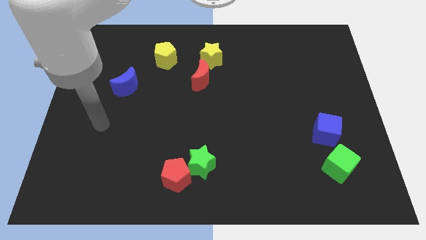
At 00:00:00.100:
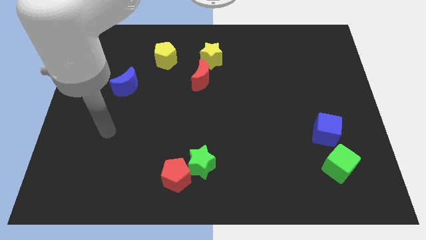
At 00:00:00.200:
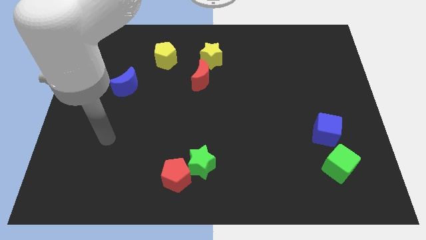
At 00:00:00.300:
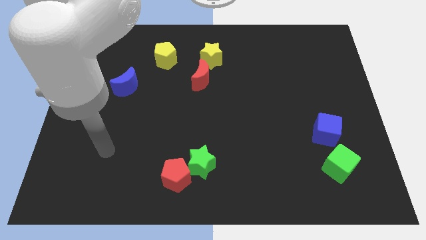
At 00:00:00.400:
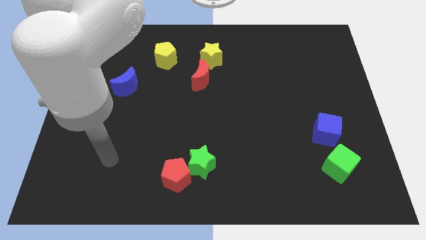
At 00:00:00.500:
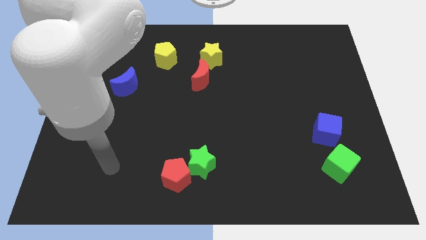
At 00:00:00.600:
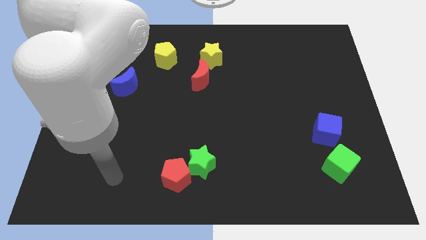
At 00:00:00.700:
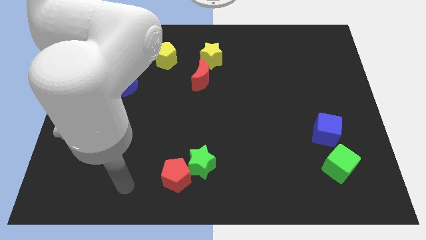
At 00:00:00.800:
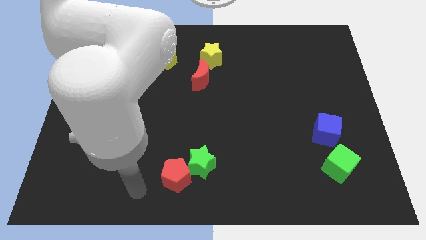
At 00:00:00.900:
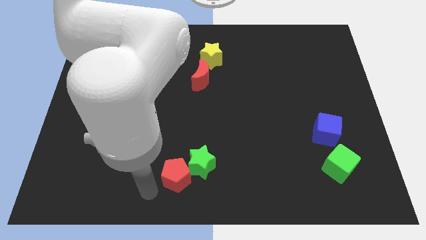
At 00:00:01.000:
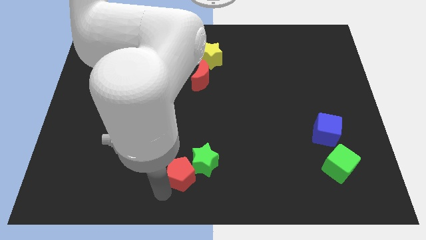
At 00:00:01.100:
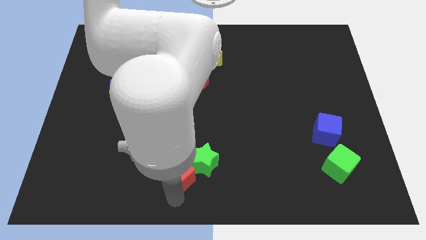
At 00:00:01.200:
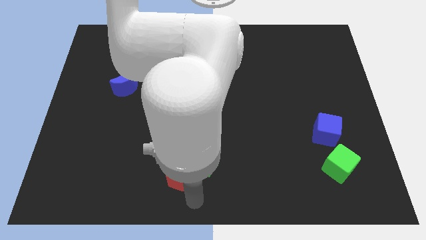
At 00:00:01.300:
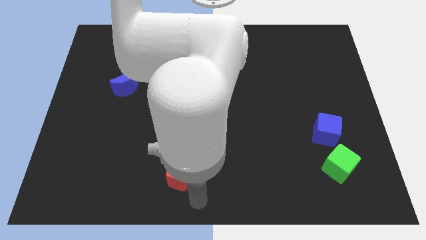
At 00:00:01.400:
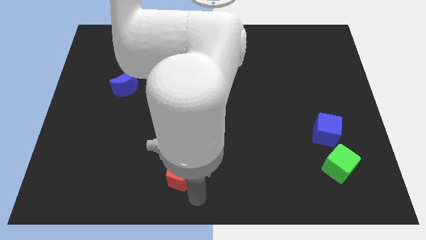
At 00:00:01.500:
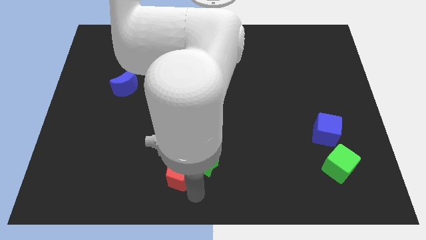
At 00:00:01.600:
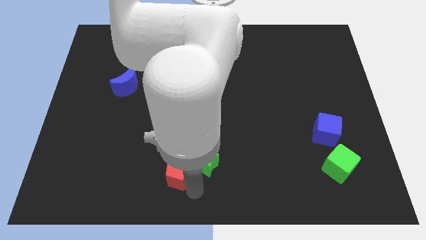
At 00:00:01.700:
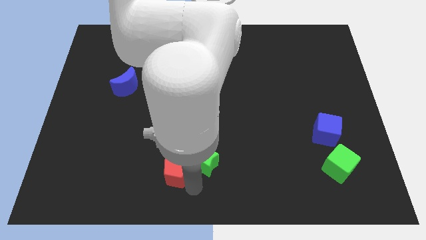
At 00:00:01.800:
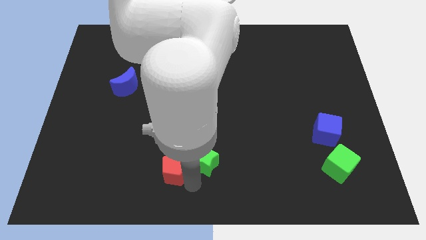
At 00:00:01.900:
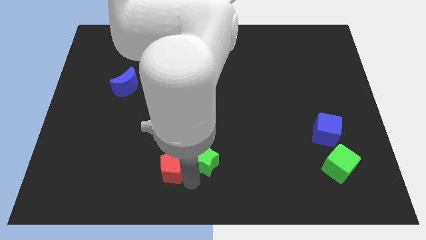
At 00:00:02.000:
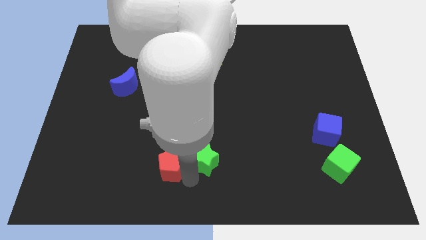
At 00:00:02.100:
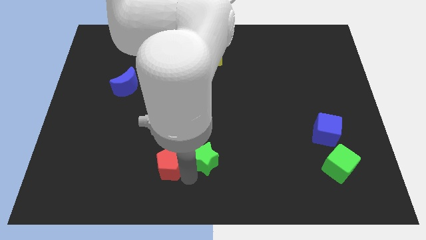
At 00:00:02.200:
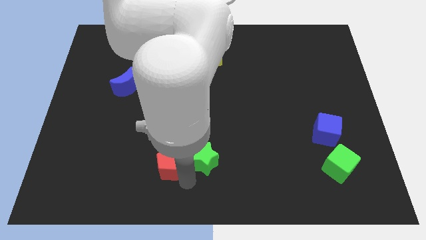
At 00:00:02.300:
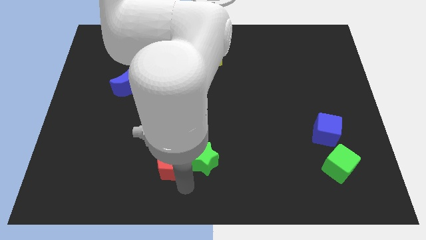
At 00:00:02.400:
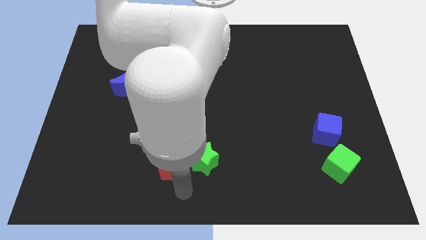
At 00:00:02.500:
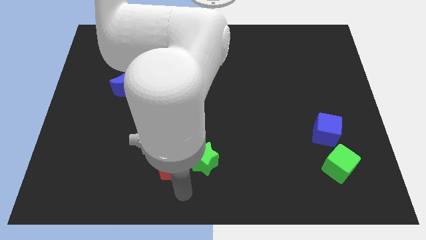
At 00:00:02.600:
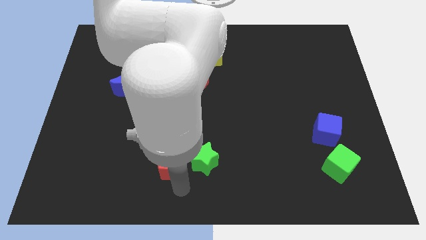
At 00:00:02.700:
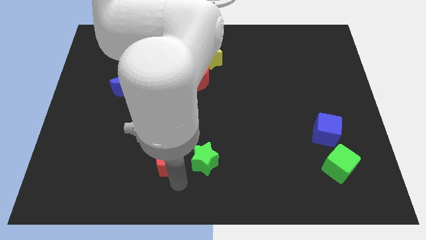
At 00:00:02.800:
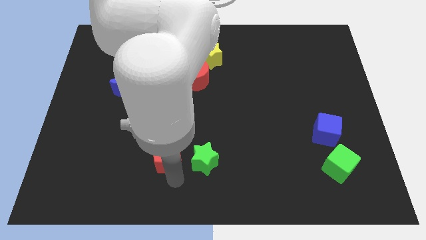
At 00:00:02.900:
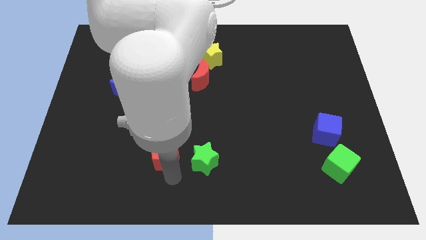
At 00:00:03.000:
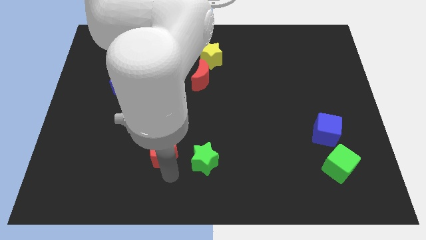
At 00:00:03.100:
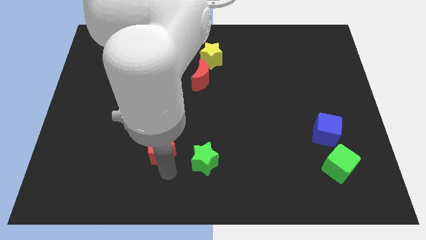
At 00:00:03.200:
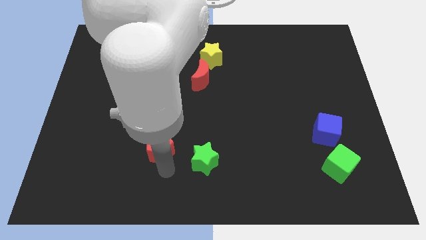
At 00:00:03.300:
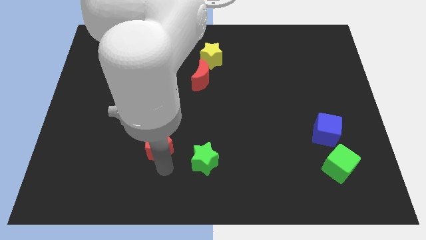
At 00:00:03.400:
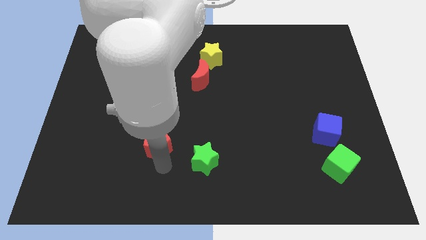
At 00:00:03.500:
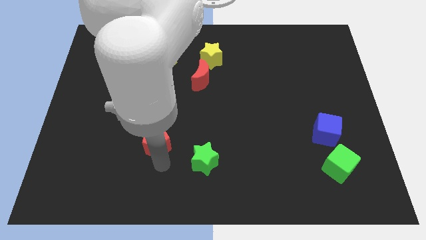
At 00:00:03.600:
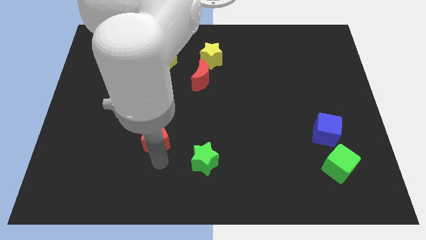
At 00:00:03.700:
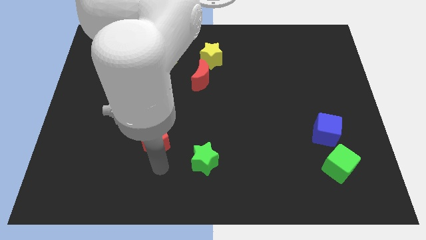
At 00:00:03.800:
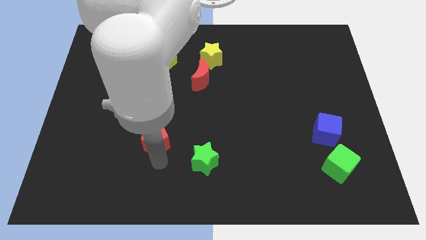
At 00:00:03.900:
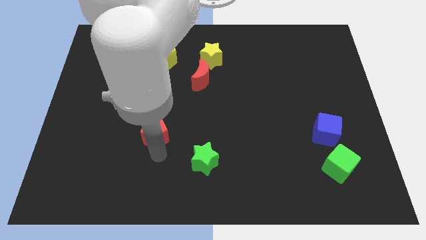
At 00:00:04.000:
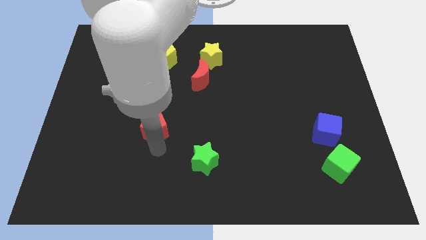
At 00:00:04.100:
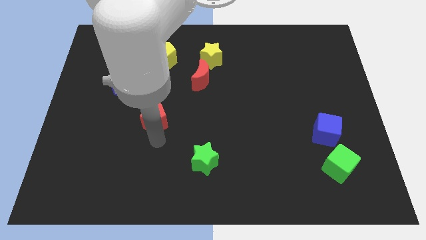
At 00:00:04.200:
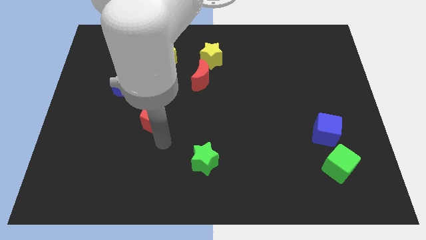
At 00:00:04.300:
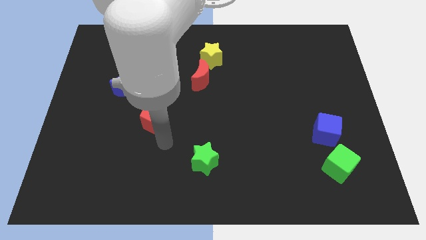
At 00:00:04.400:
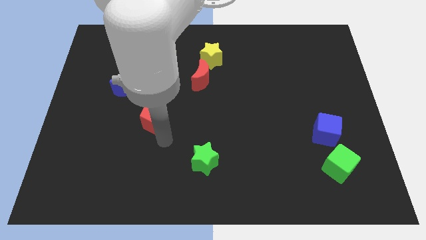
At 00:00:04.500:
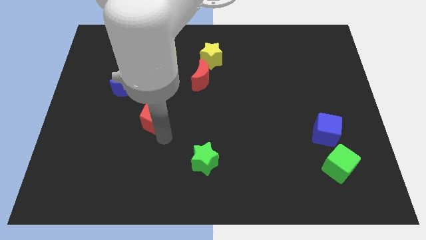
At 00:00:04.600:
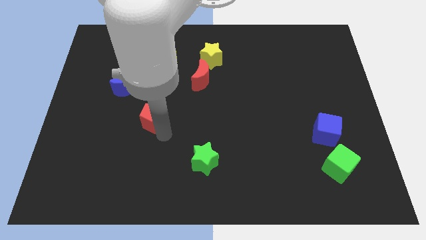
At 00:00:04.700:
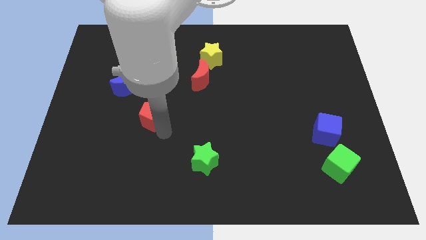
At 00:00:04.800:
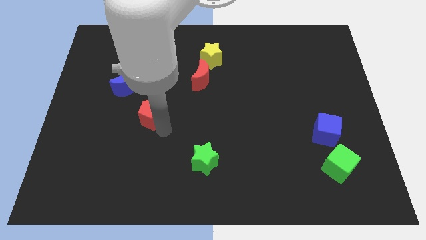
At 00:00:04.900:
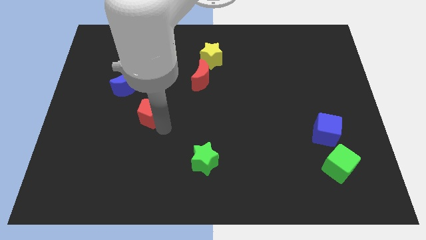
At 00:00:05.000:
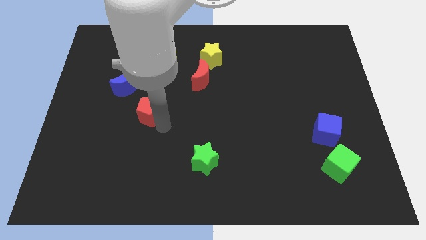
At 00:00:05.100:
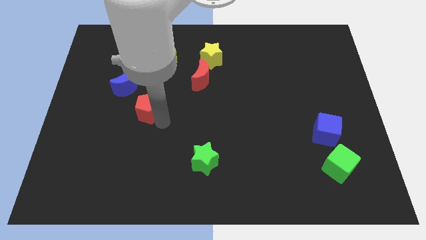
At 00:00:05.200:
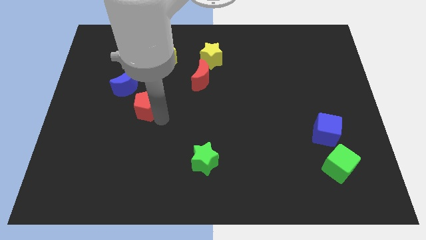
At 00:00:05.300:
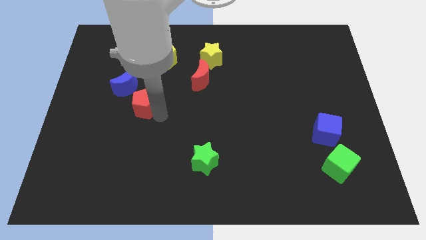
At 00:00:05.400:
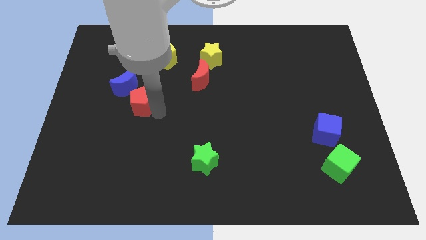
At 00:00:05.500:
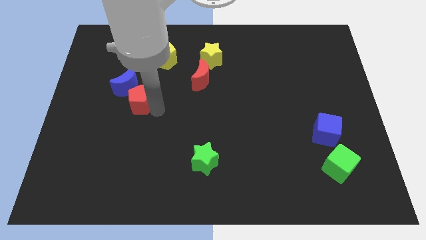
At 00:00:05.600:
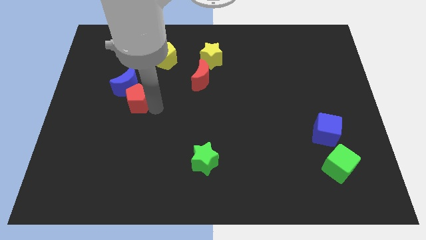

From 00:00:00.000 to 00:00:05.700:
push the red pentagon to the blue moon

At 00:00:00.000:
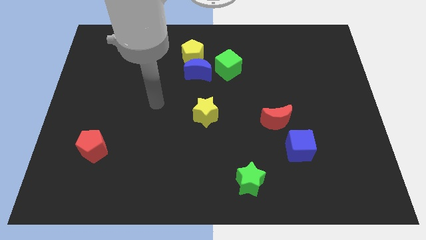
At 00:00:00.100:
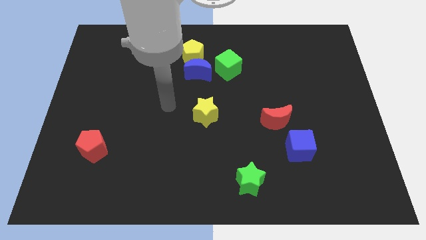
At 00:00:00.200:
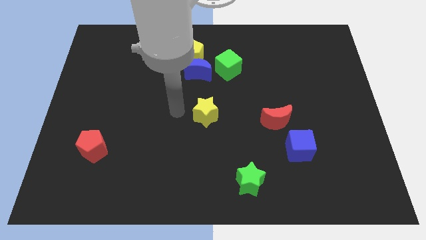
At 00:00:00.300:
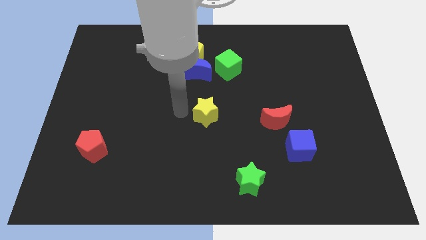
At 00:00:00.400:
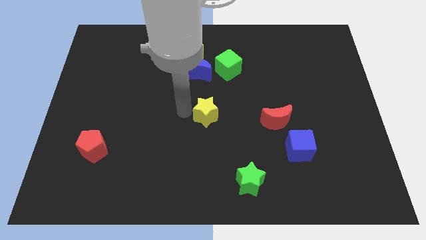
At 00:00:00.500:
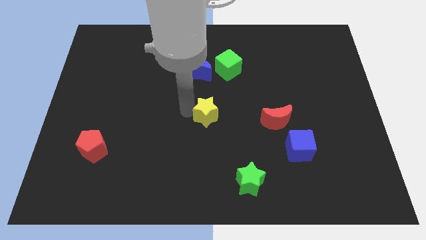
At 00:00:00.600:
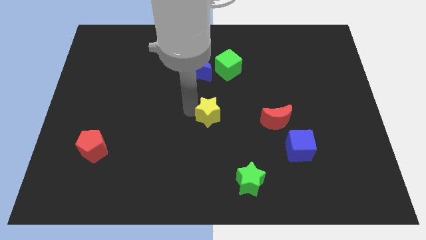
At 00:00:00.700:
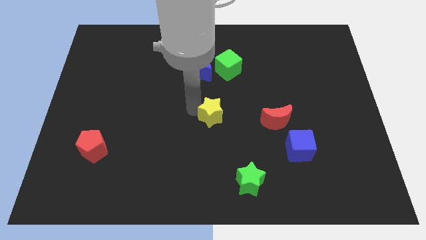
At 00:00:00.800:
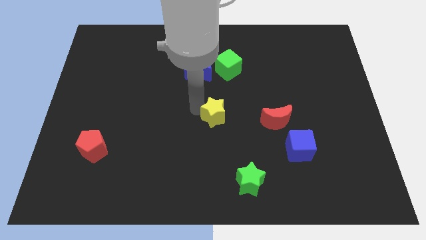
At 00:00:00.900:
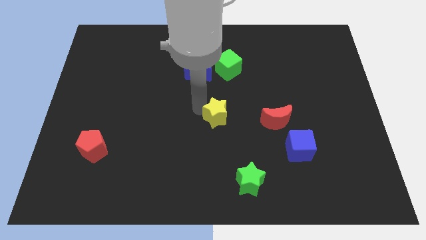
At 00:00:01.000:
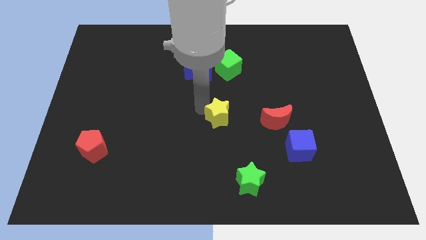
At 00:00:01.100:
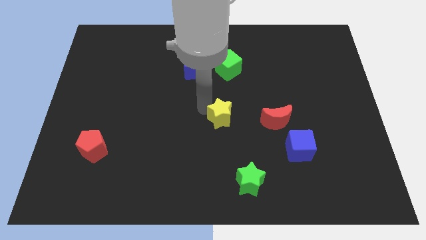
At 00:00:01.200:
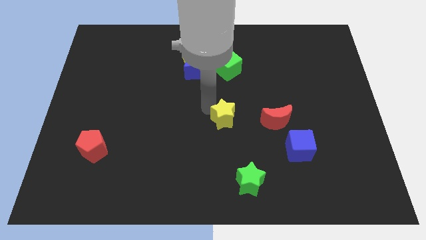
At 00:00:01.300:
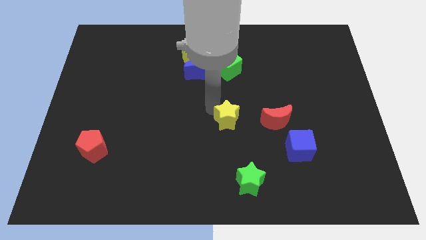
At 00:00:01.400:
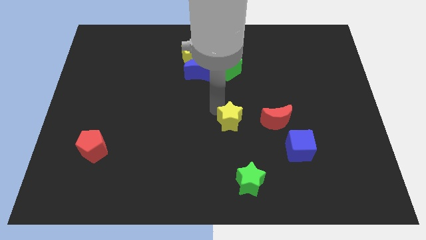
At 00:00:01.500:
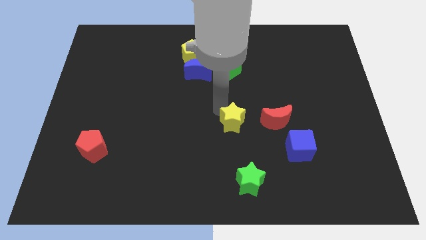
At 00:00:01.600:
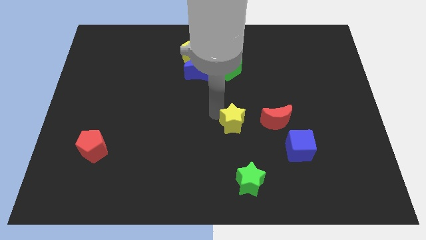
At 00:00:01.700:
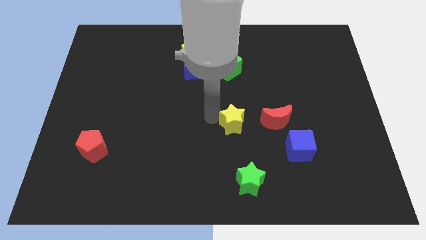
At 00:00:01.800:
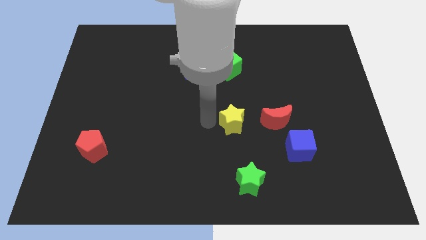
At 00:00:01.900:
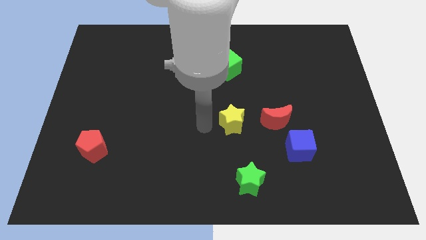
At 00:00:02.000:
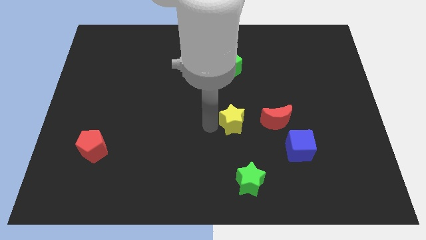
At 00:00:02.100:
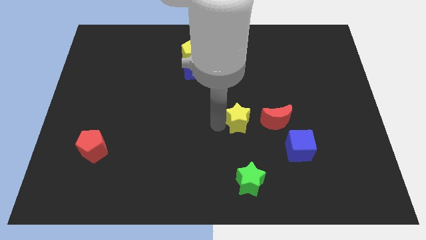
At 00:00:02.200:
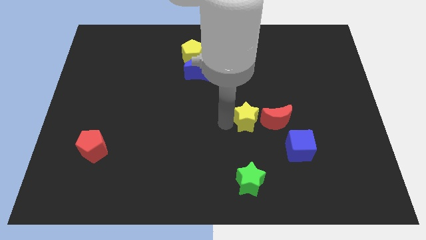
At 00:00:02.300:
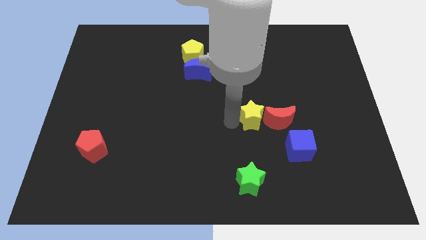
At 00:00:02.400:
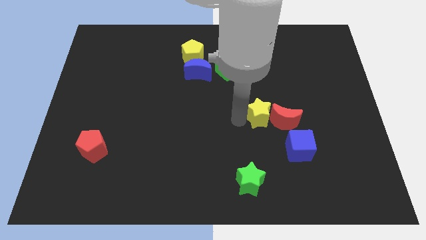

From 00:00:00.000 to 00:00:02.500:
put the yellow star close to the red moon
